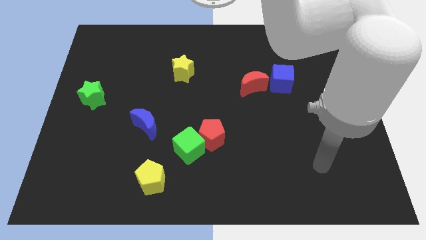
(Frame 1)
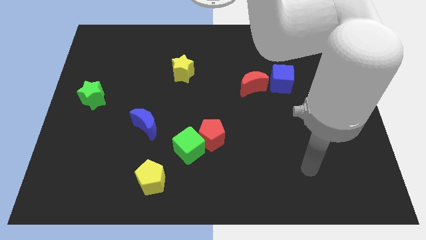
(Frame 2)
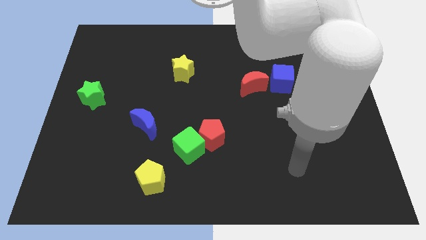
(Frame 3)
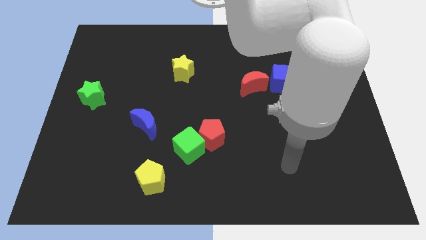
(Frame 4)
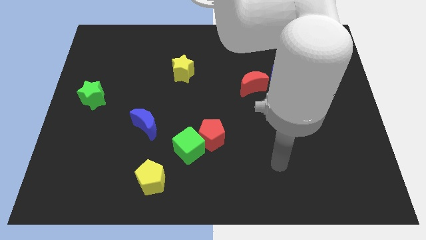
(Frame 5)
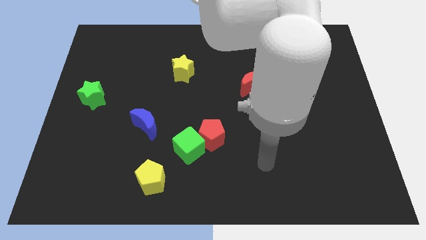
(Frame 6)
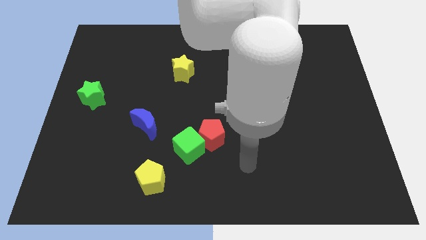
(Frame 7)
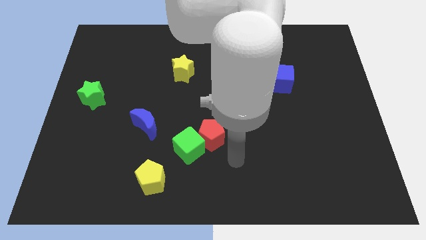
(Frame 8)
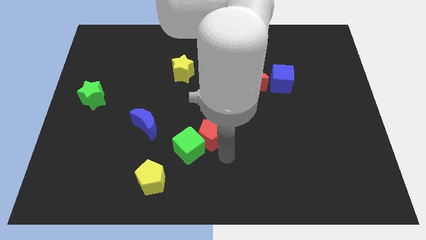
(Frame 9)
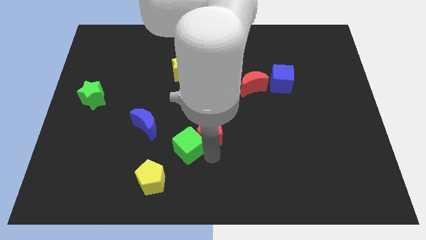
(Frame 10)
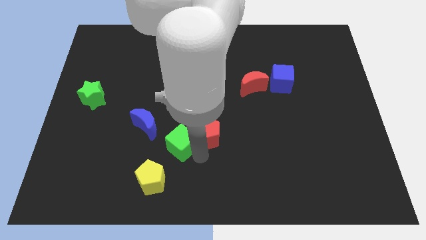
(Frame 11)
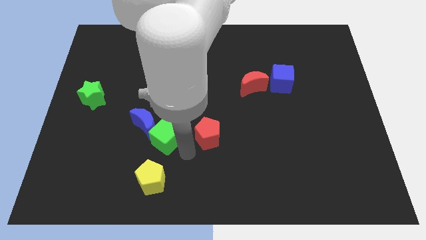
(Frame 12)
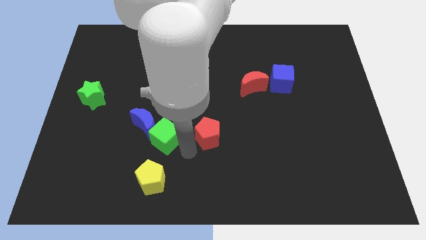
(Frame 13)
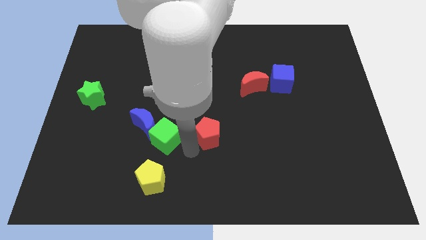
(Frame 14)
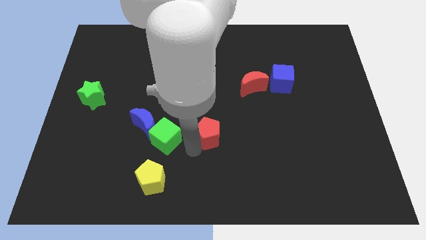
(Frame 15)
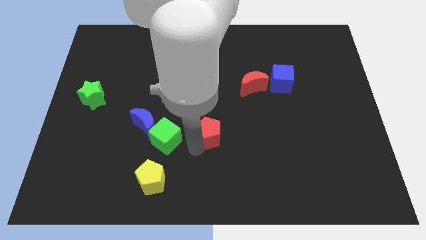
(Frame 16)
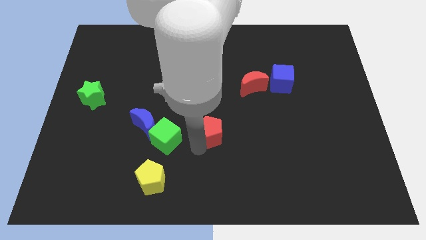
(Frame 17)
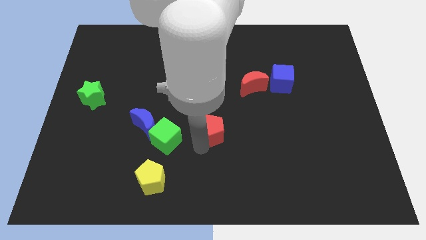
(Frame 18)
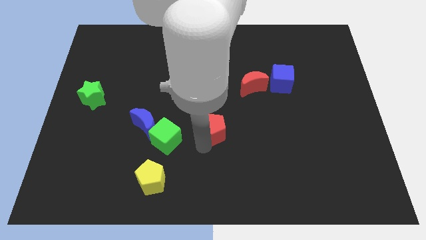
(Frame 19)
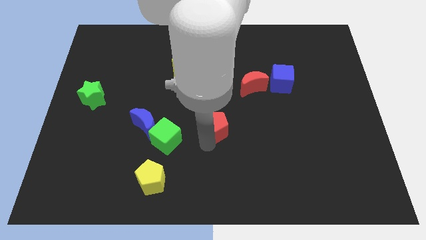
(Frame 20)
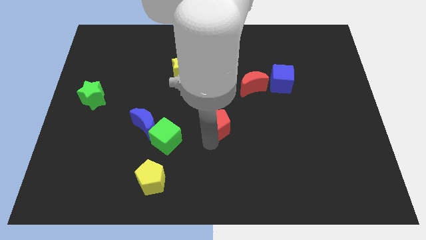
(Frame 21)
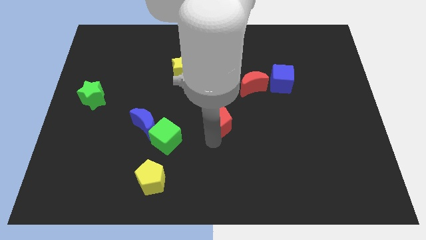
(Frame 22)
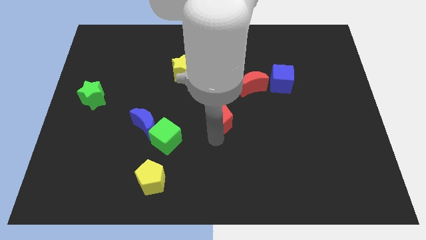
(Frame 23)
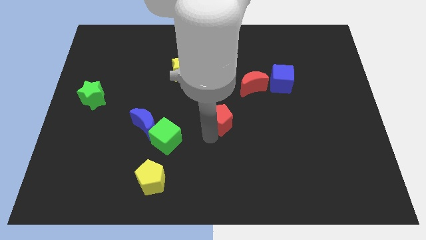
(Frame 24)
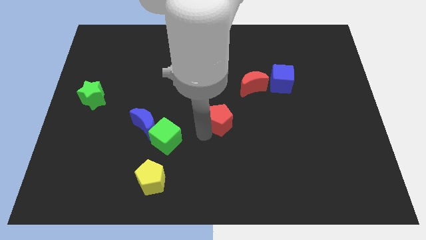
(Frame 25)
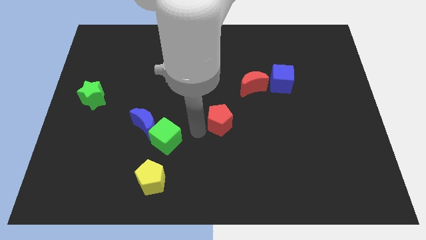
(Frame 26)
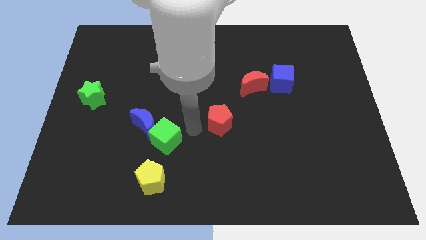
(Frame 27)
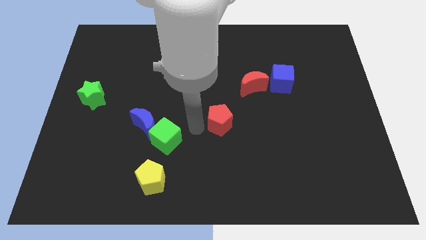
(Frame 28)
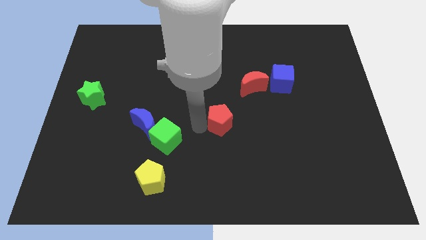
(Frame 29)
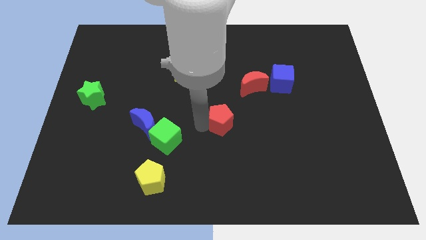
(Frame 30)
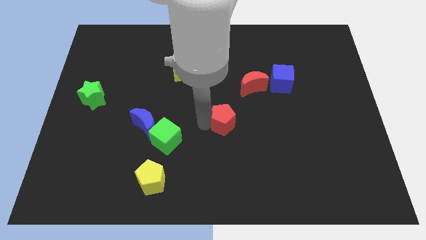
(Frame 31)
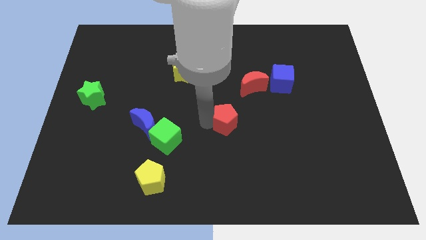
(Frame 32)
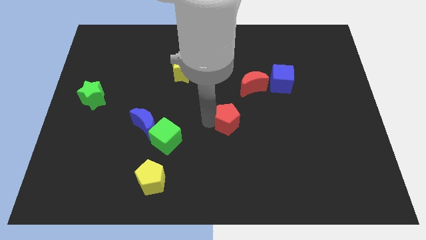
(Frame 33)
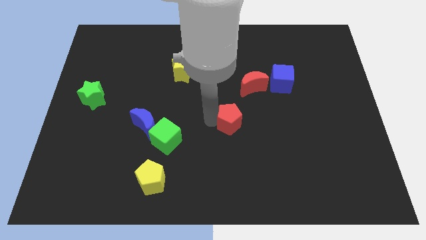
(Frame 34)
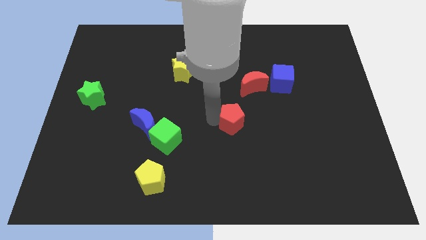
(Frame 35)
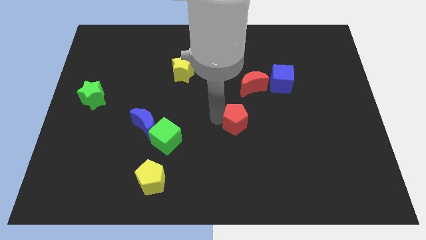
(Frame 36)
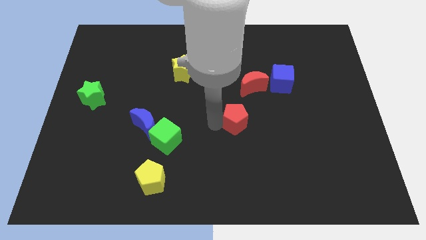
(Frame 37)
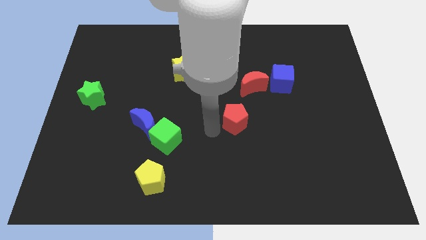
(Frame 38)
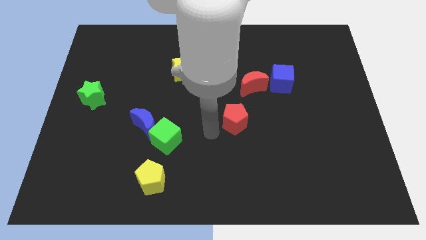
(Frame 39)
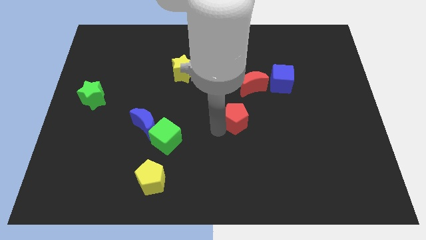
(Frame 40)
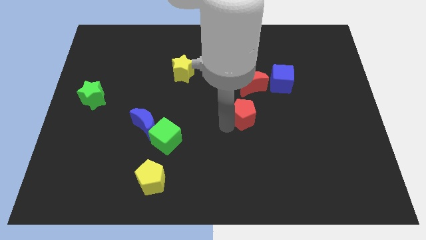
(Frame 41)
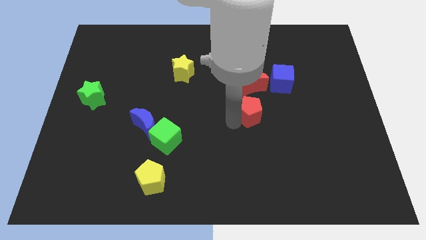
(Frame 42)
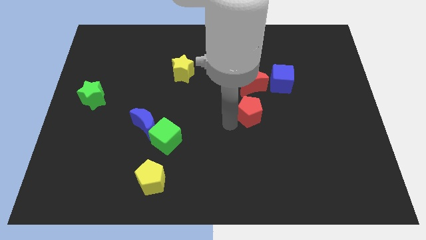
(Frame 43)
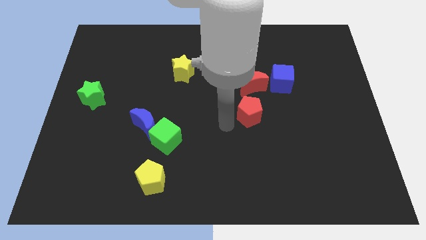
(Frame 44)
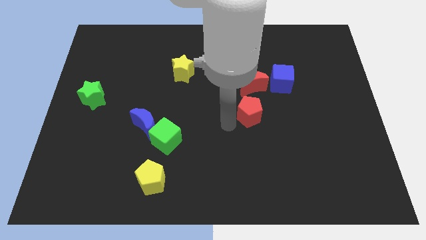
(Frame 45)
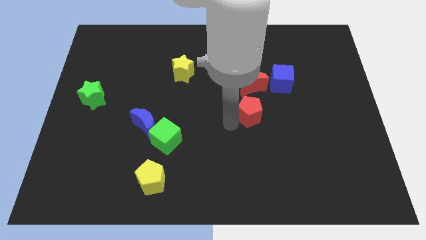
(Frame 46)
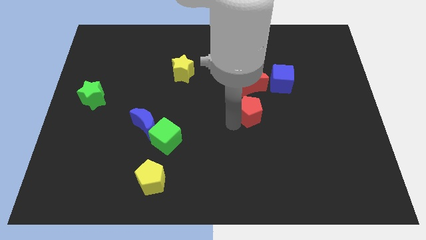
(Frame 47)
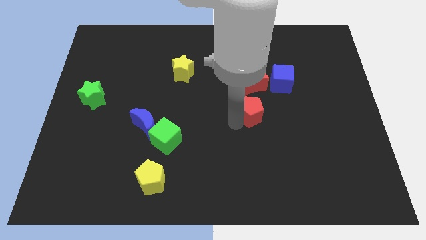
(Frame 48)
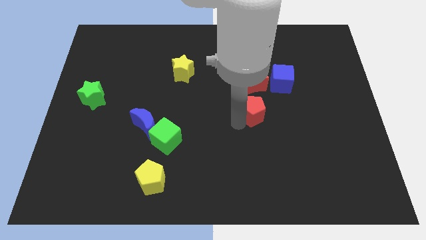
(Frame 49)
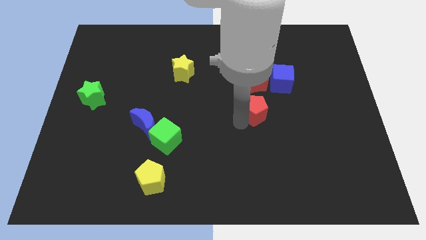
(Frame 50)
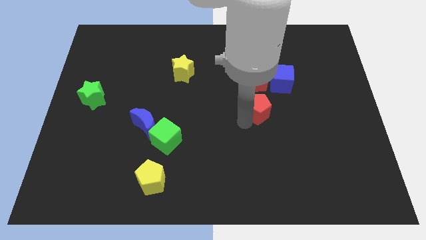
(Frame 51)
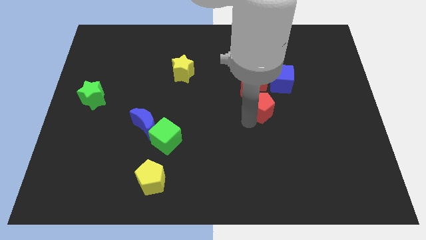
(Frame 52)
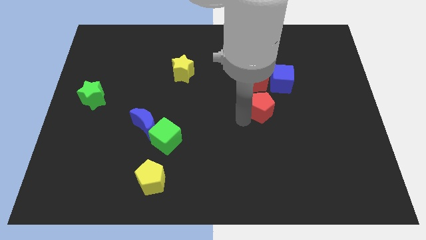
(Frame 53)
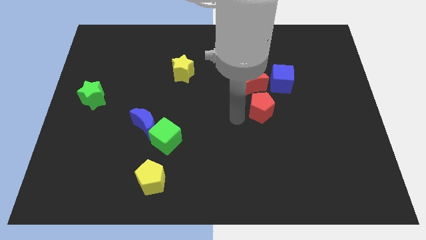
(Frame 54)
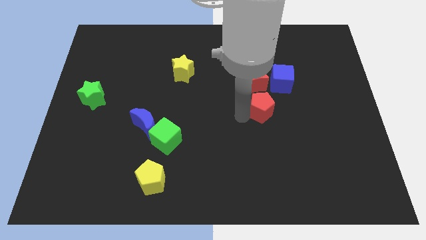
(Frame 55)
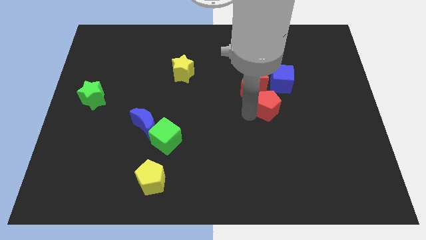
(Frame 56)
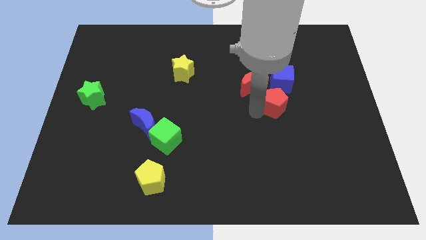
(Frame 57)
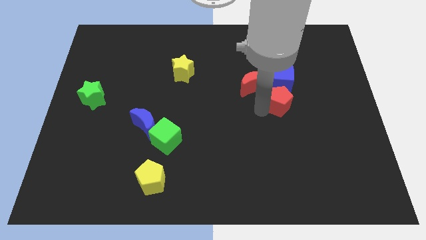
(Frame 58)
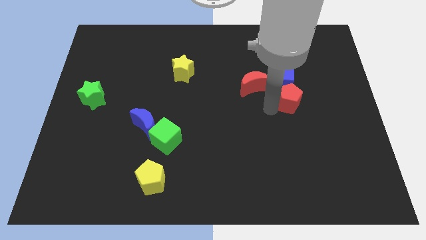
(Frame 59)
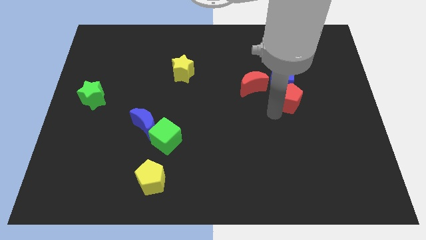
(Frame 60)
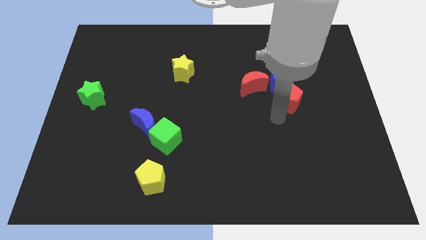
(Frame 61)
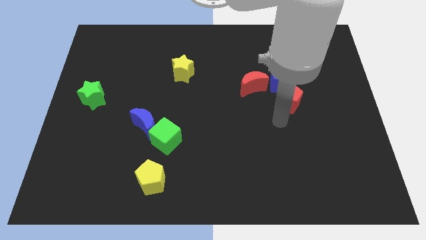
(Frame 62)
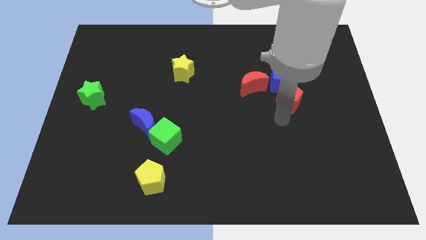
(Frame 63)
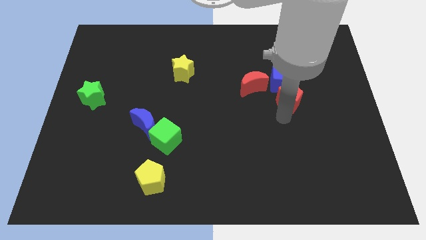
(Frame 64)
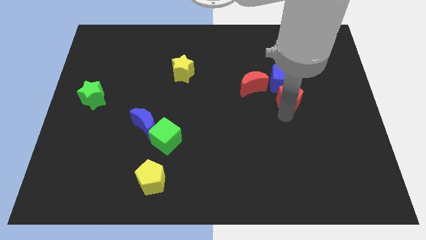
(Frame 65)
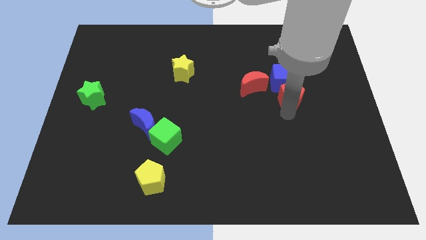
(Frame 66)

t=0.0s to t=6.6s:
move the red pentagon upwards and right

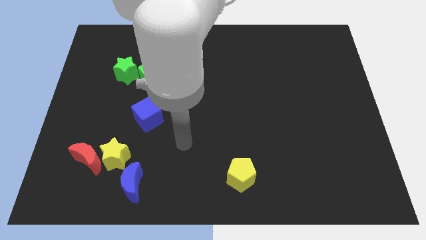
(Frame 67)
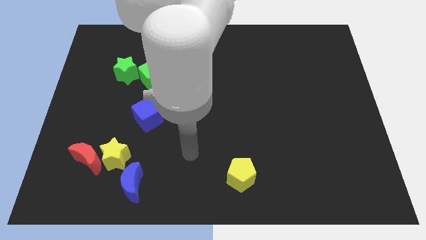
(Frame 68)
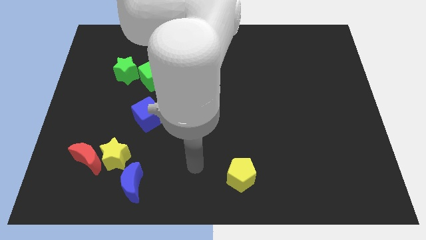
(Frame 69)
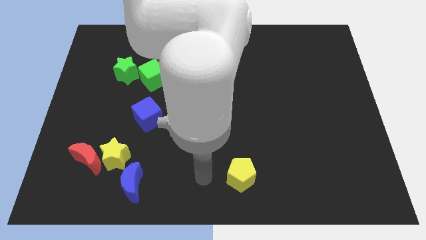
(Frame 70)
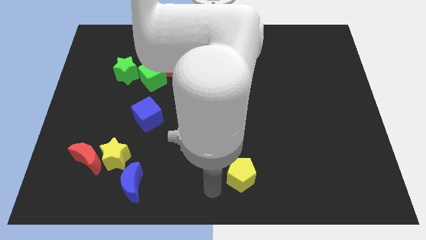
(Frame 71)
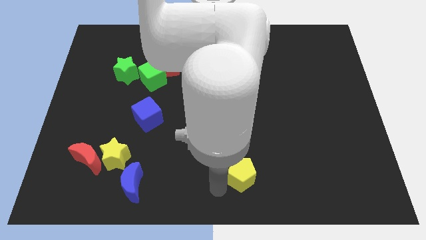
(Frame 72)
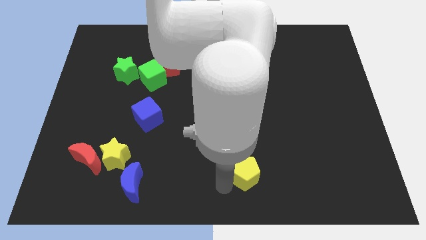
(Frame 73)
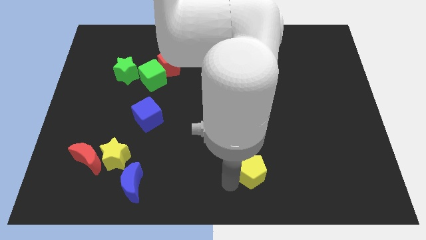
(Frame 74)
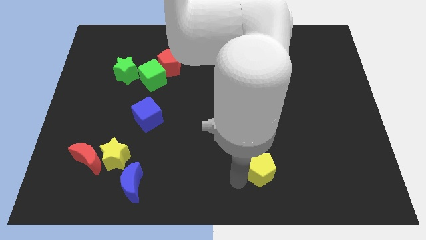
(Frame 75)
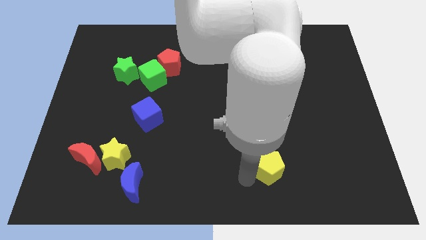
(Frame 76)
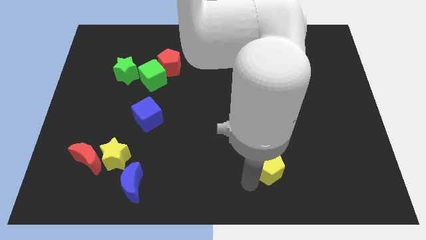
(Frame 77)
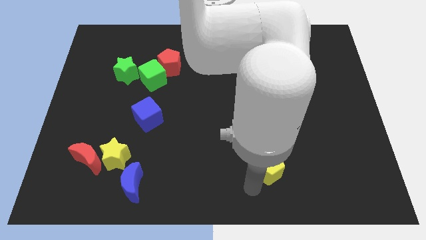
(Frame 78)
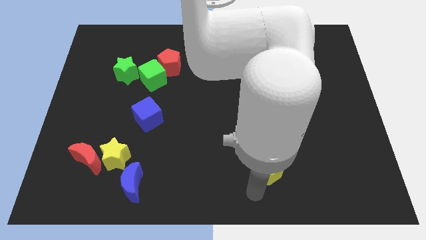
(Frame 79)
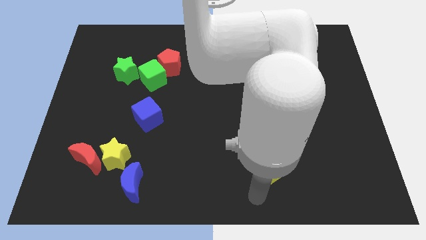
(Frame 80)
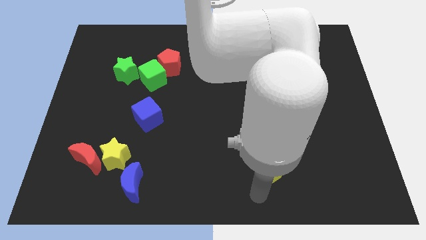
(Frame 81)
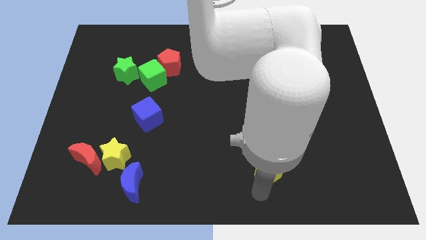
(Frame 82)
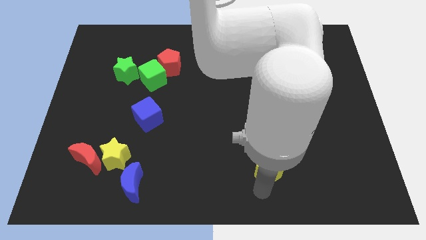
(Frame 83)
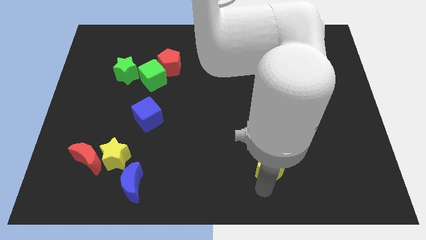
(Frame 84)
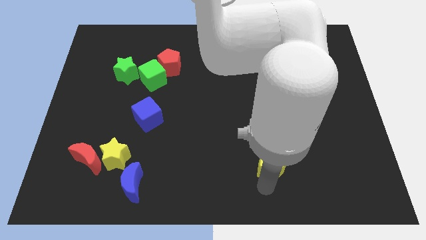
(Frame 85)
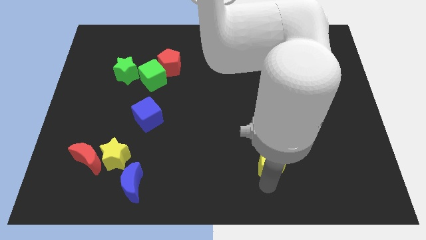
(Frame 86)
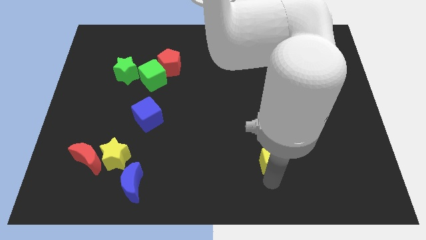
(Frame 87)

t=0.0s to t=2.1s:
slide the yellow pentagon diagonally up and to the right a bit
